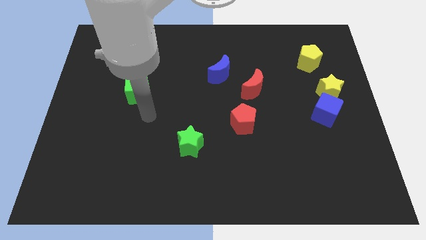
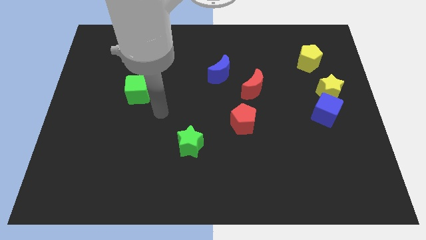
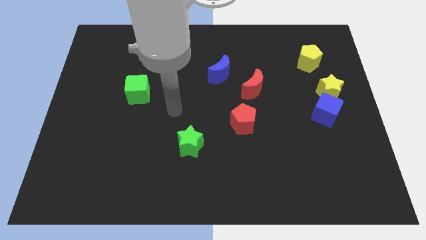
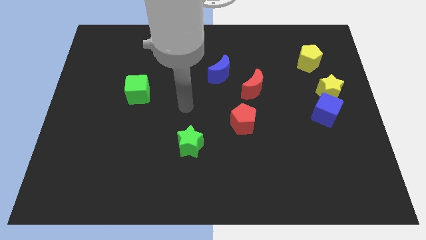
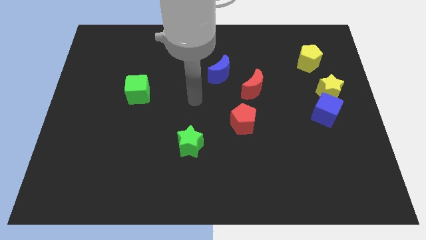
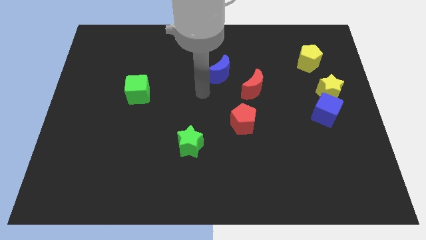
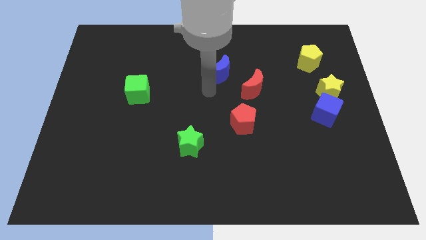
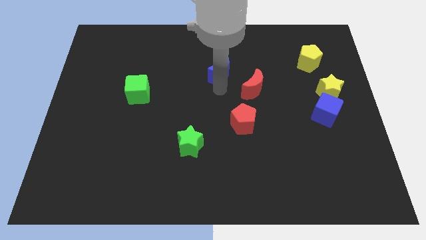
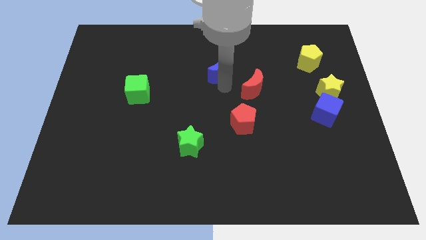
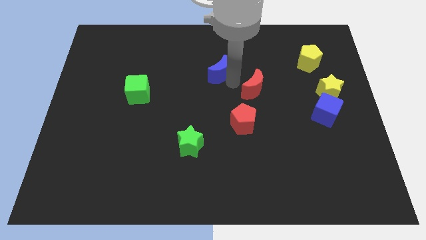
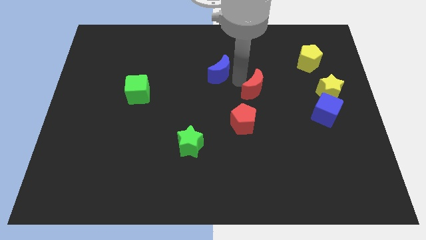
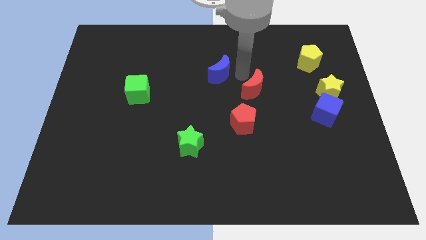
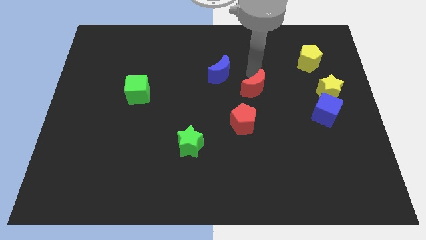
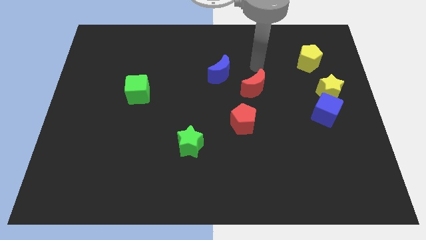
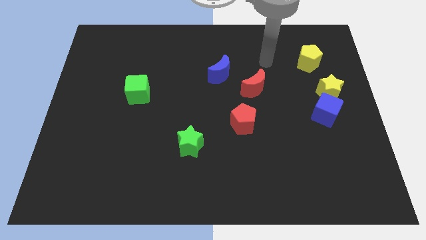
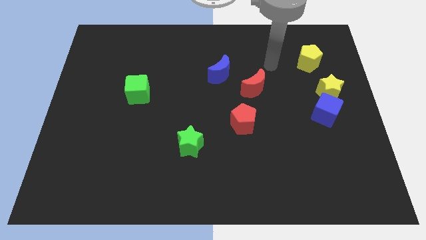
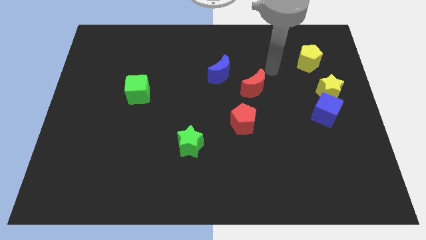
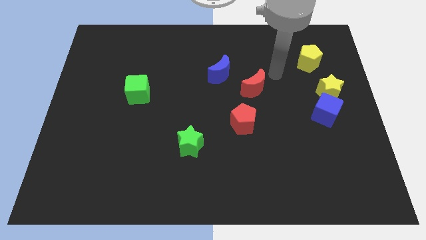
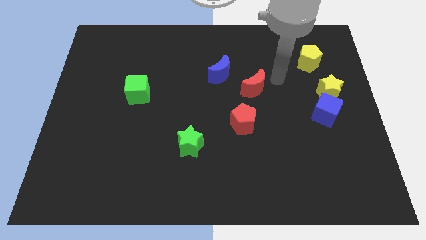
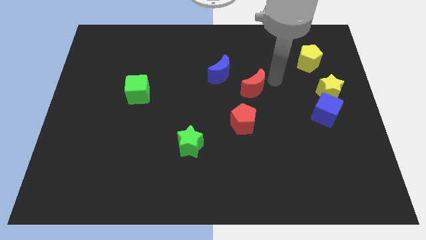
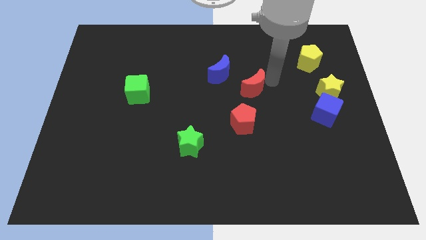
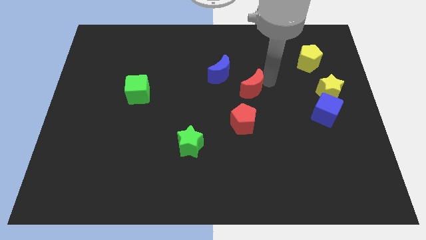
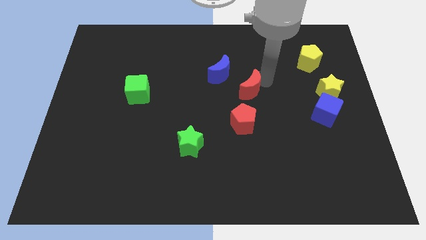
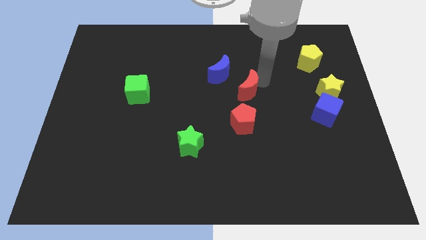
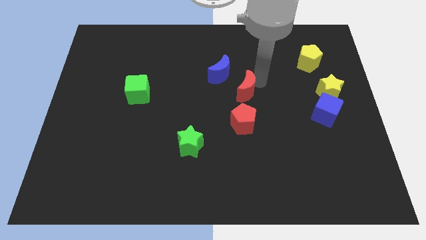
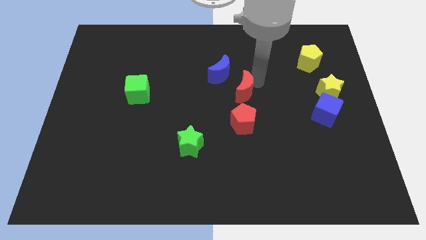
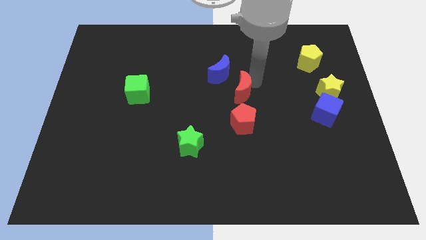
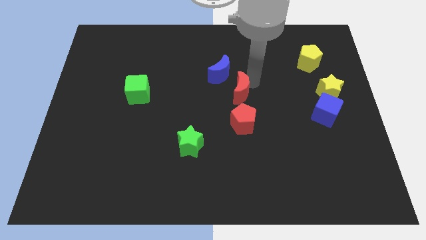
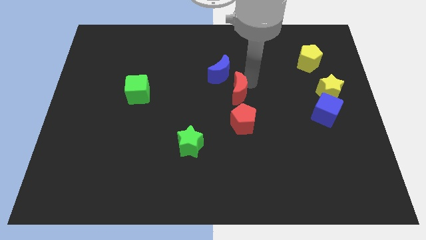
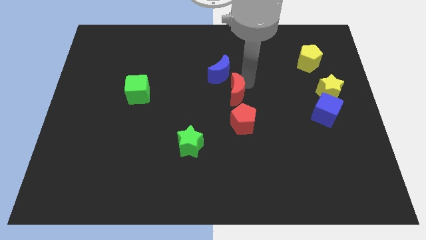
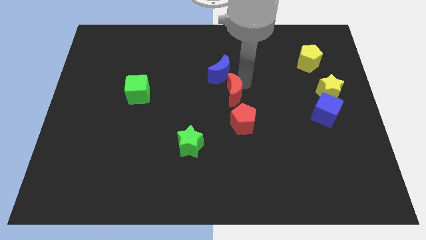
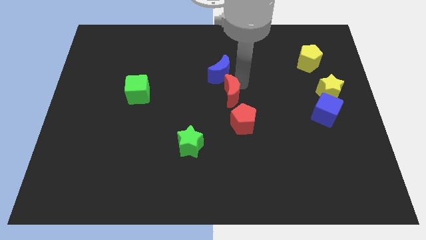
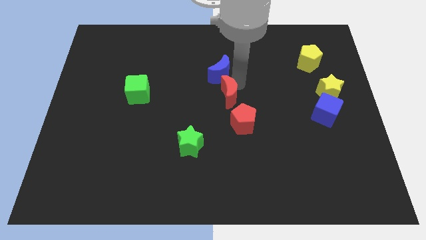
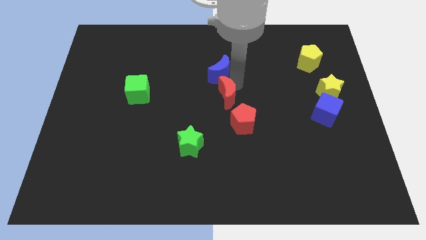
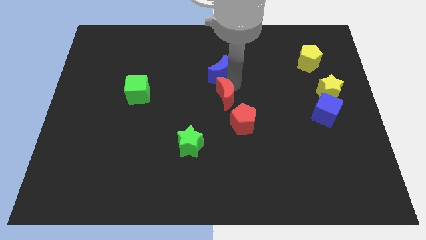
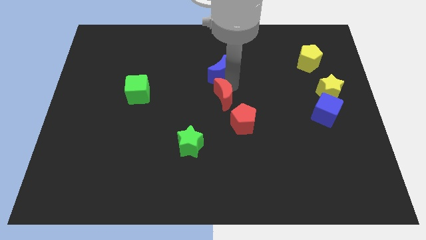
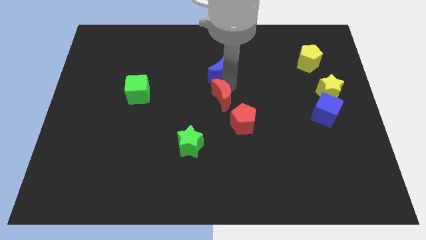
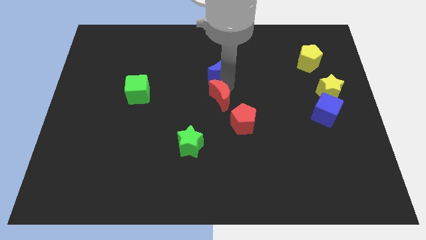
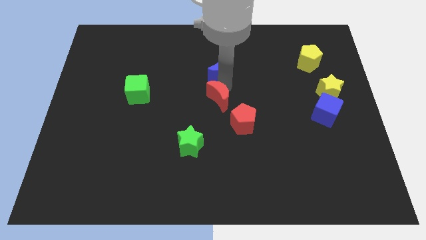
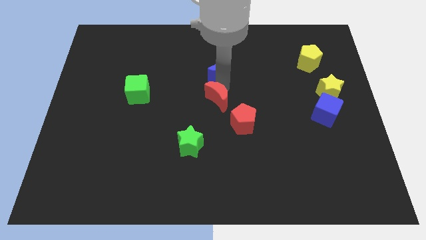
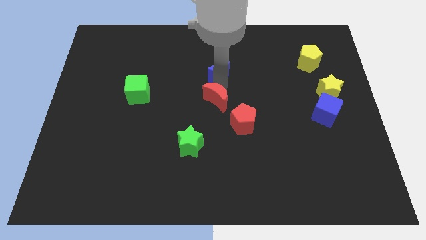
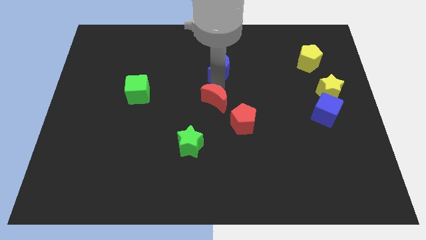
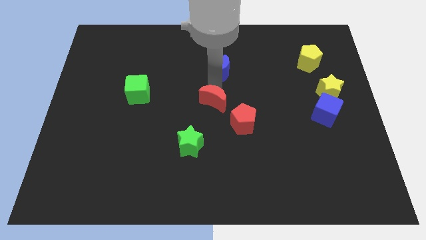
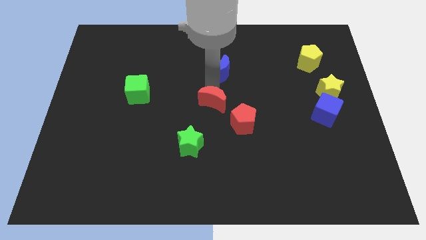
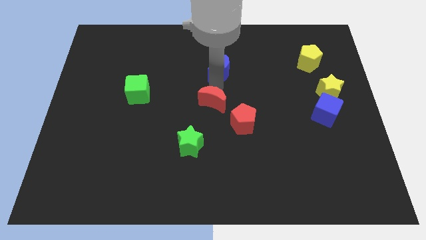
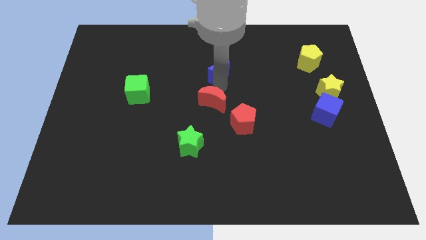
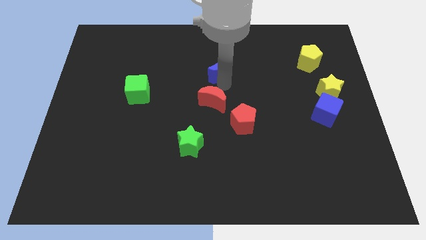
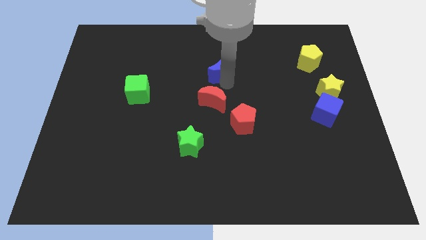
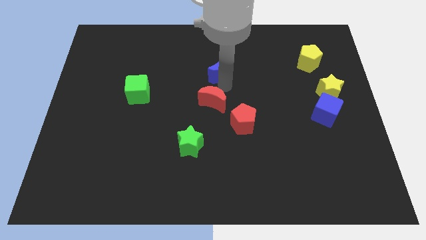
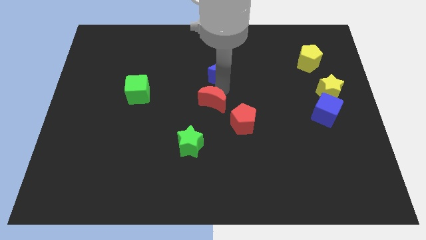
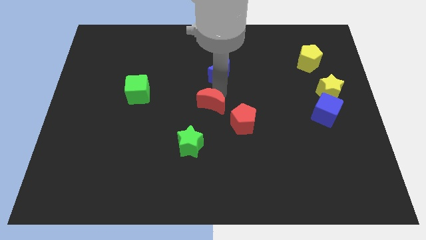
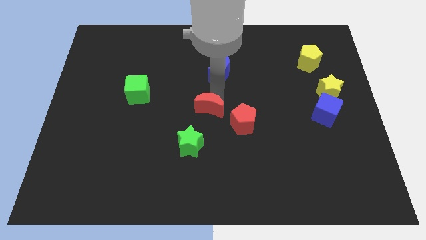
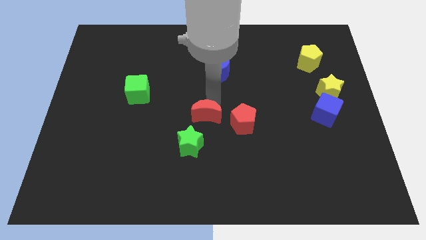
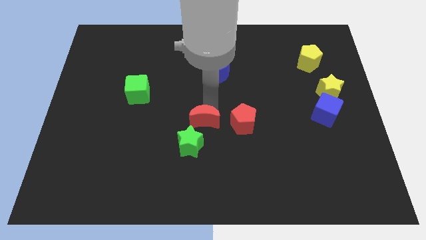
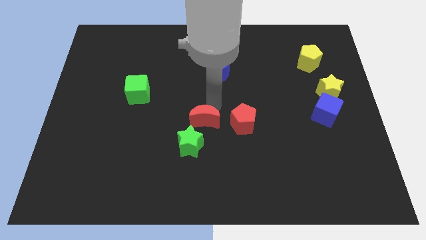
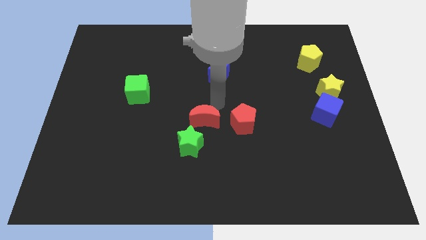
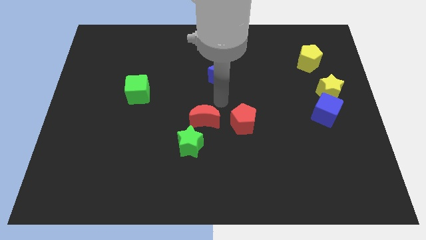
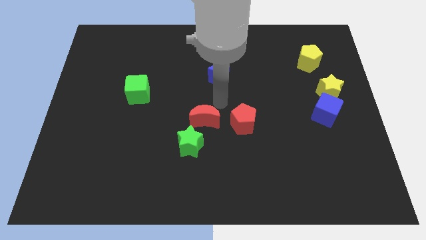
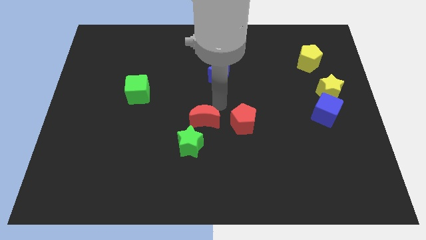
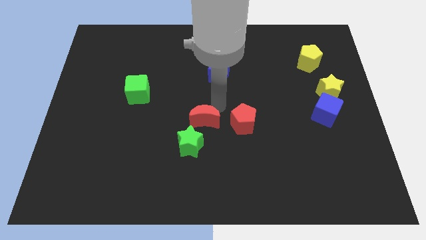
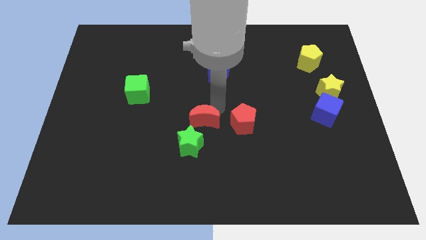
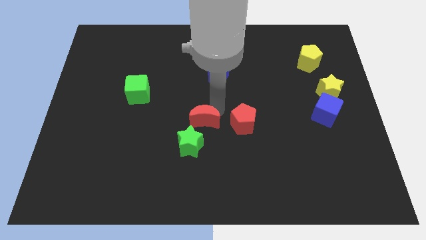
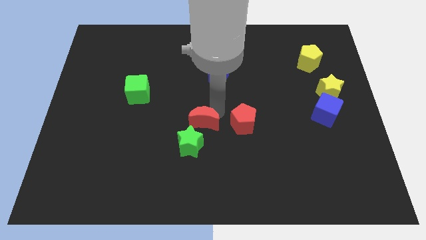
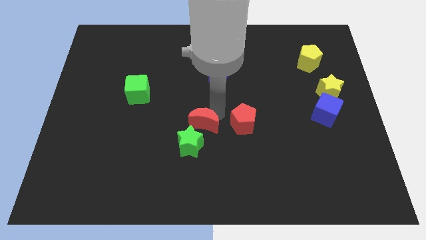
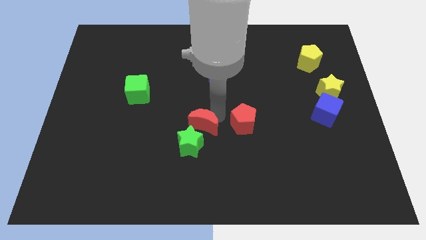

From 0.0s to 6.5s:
push the red moon to the green star

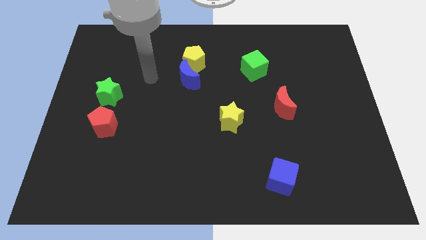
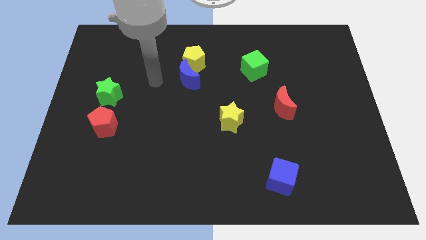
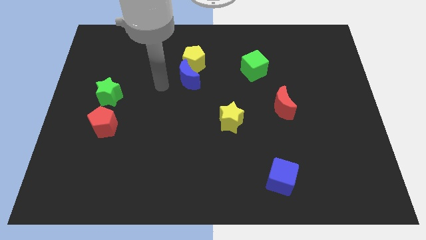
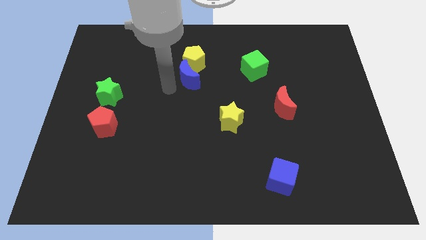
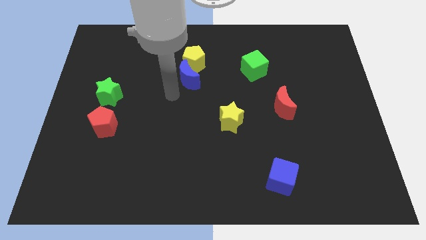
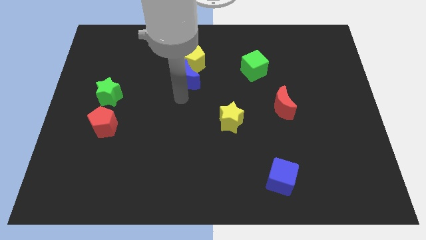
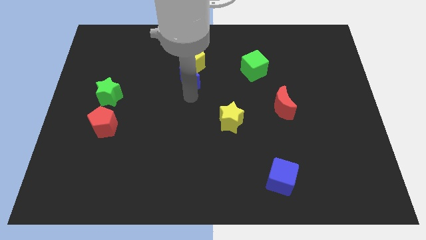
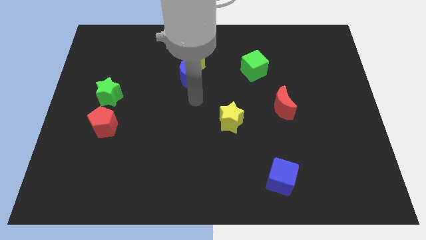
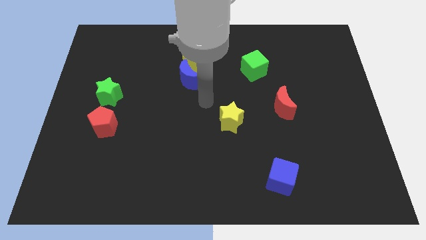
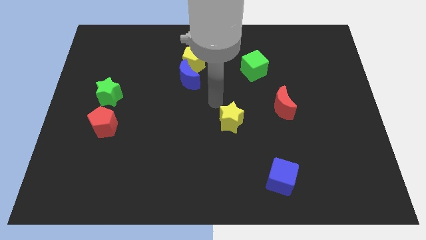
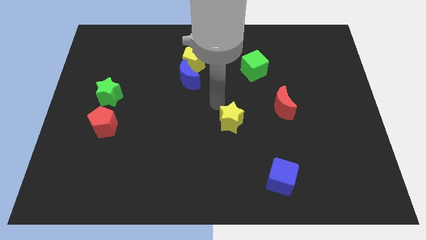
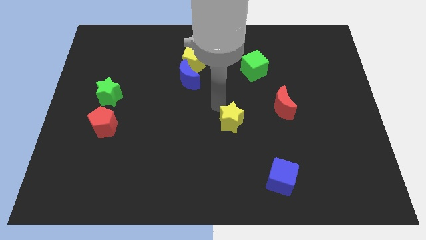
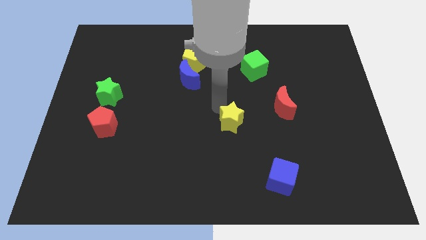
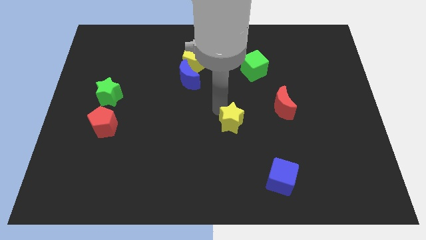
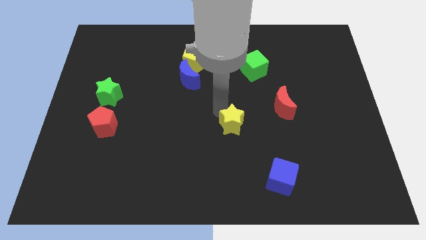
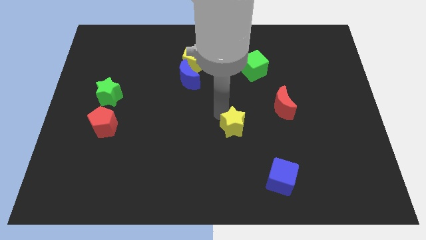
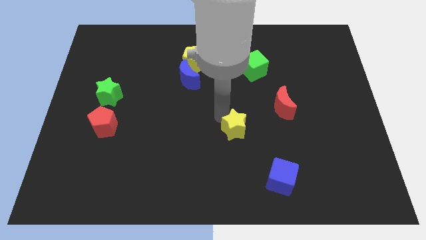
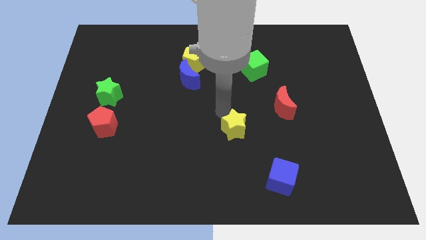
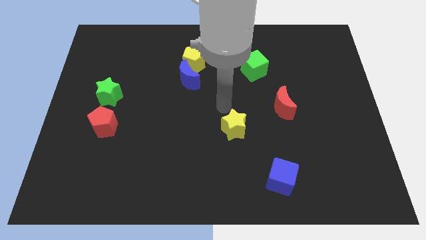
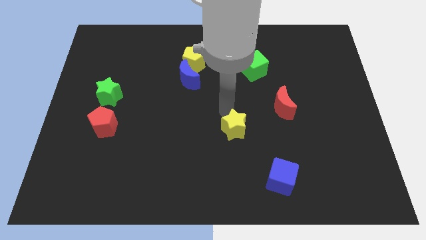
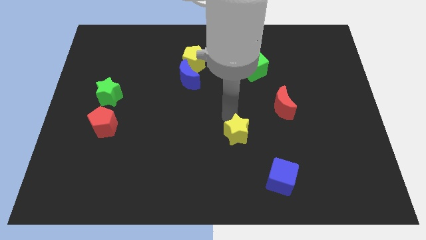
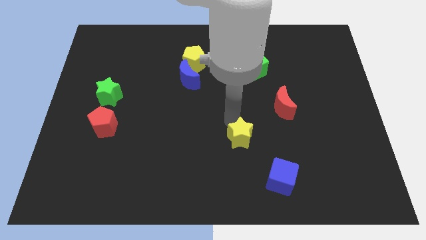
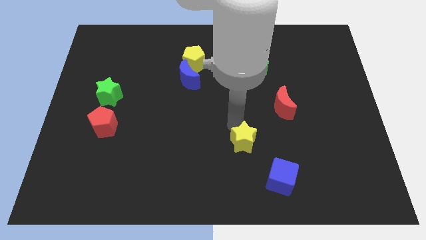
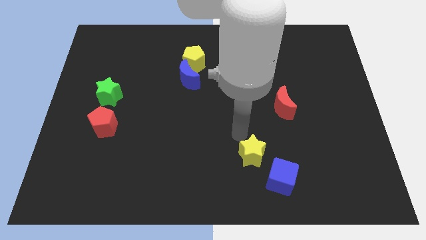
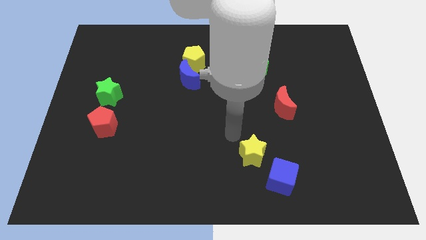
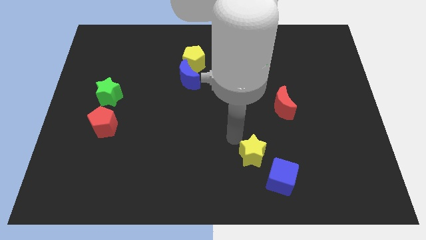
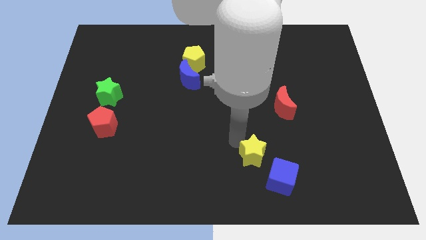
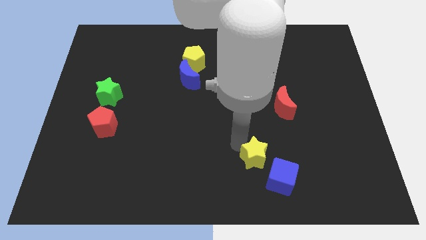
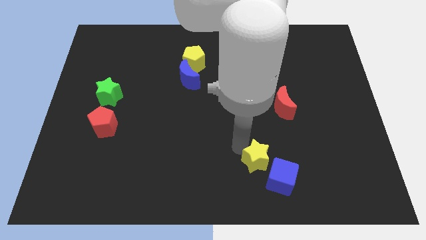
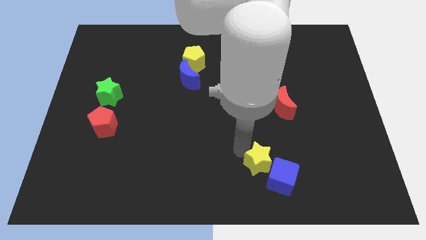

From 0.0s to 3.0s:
move the yellow star to the blue cube
